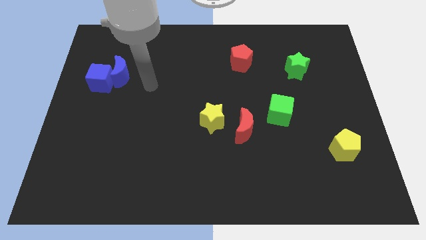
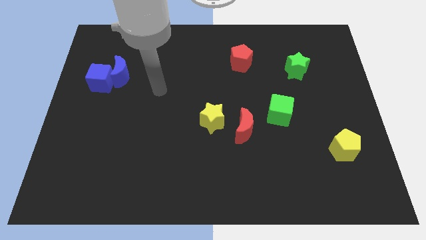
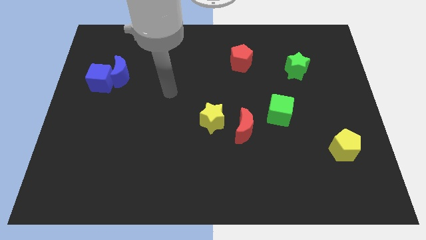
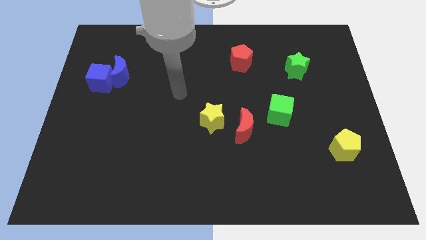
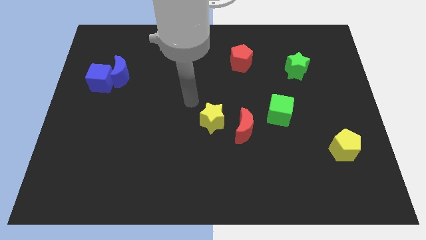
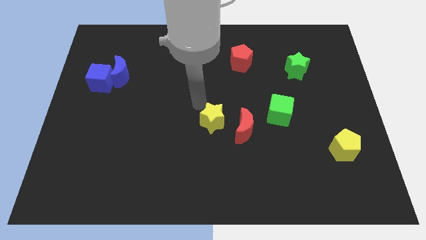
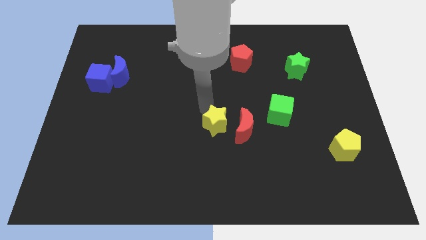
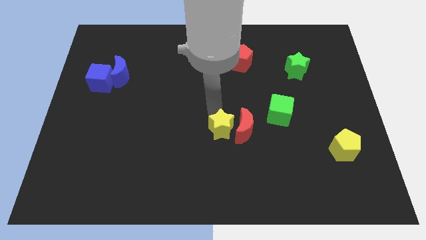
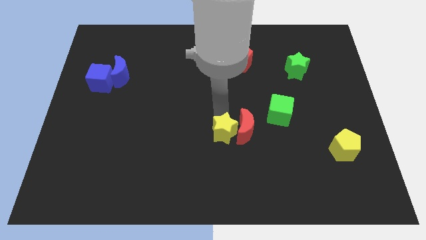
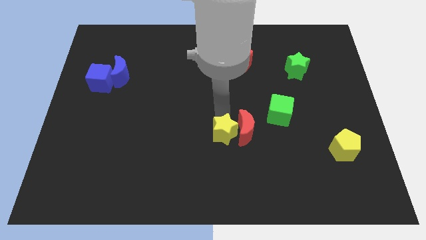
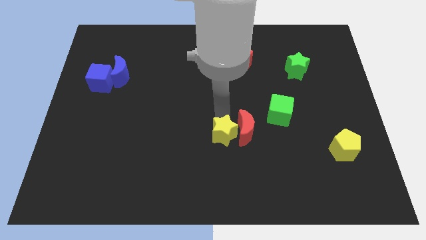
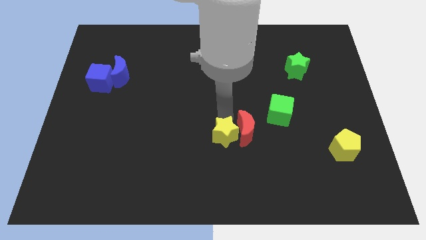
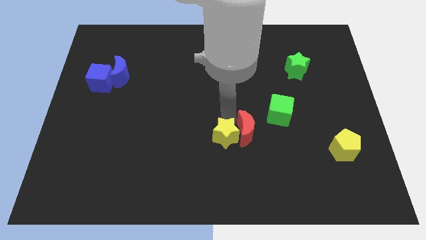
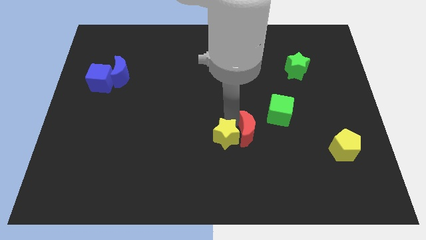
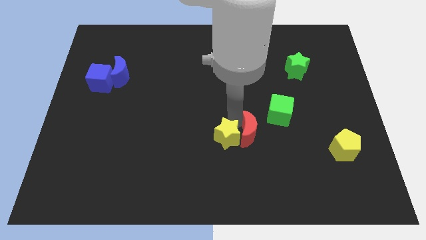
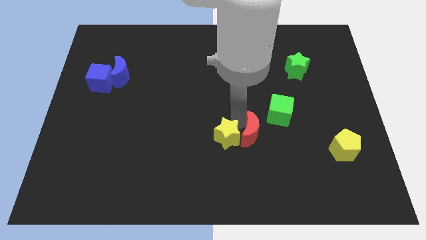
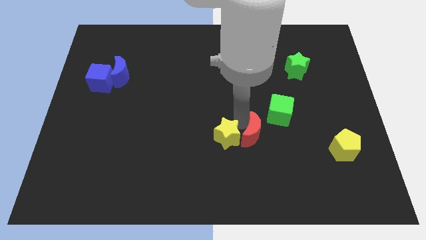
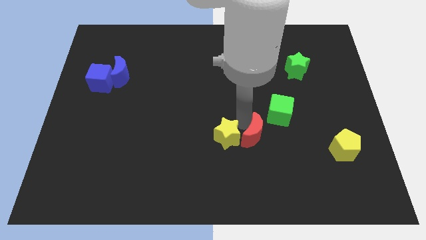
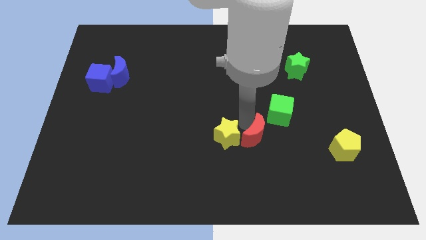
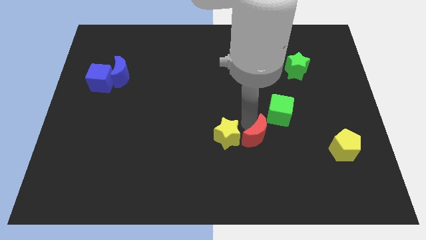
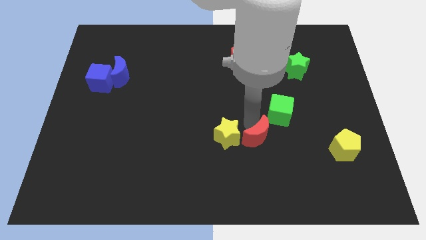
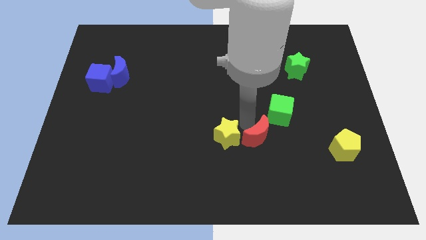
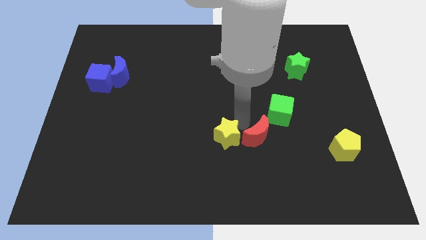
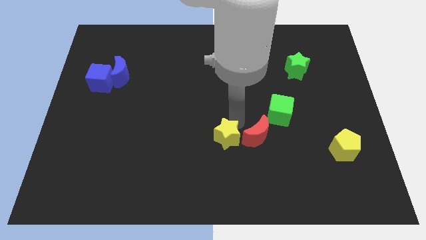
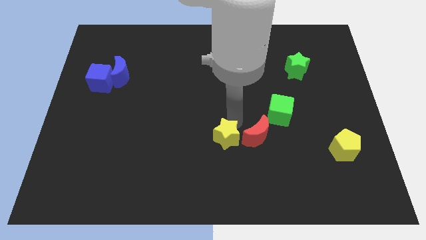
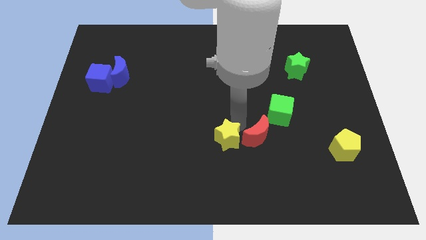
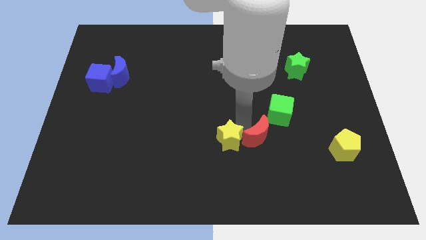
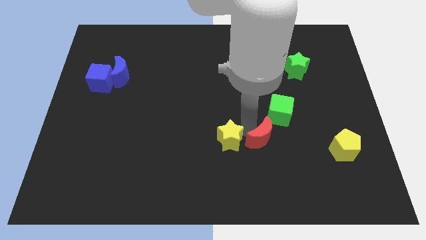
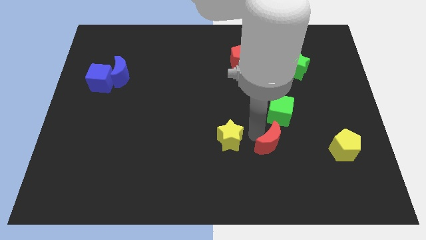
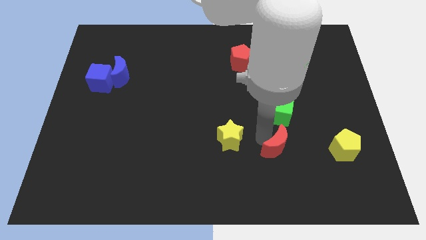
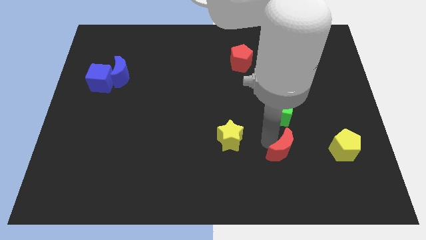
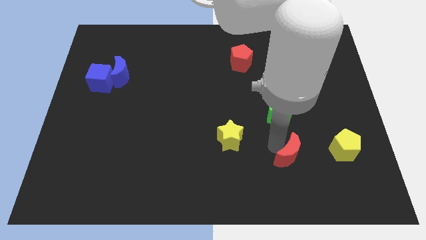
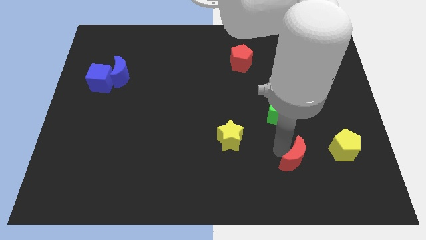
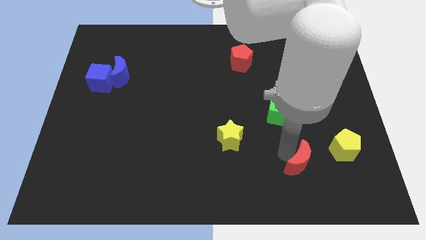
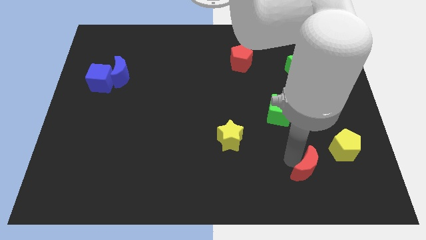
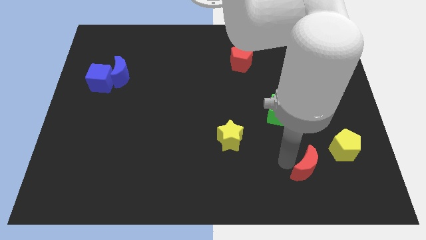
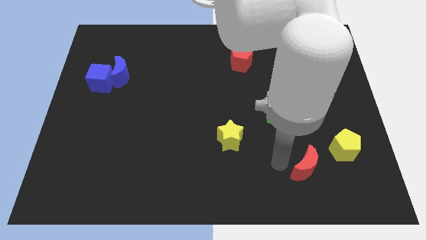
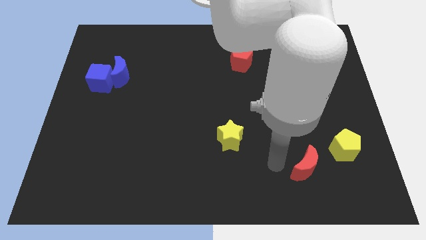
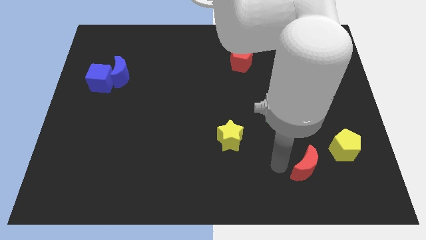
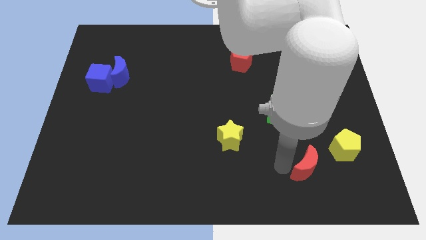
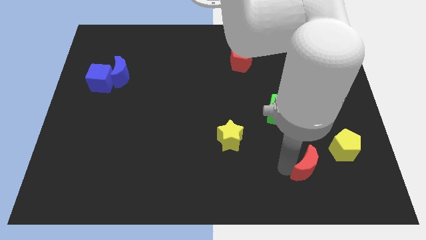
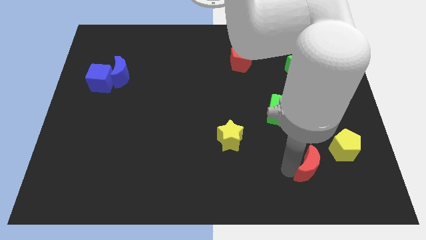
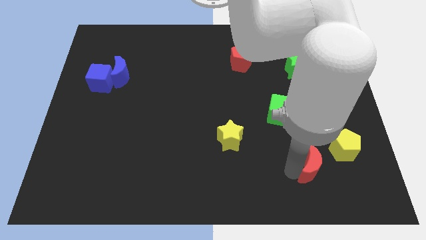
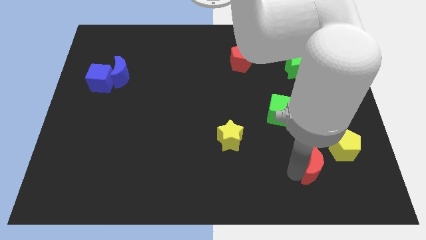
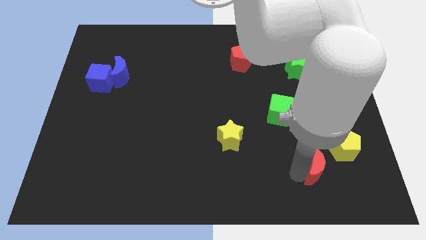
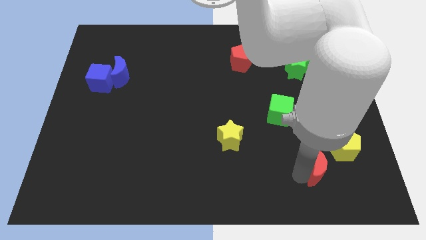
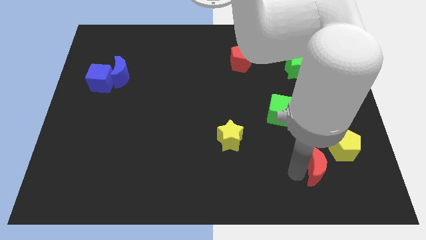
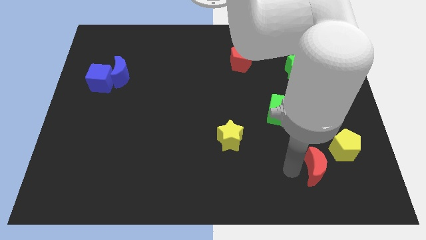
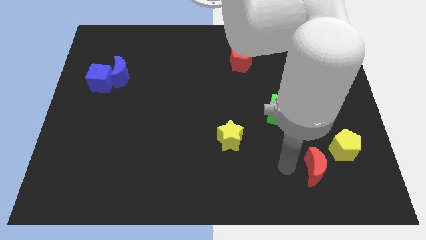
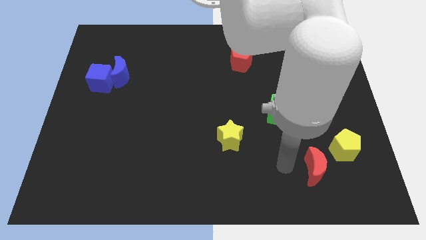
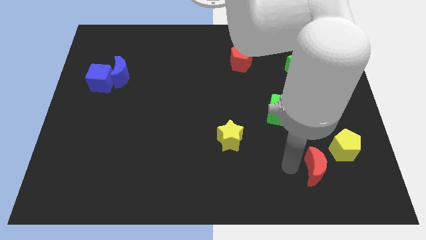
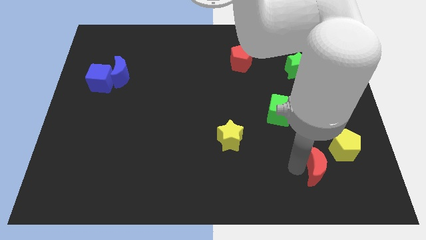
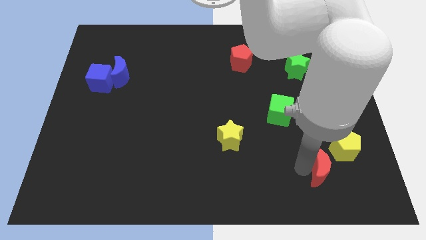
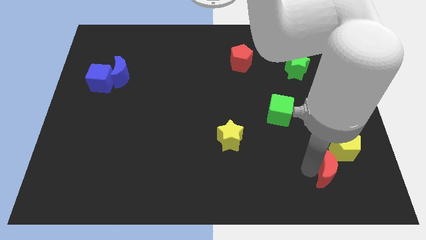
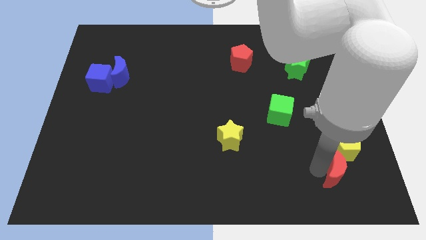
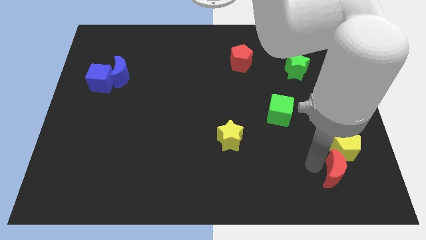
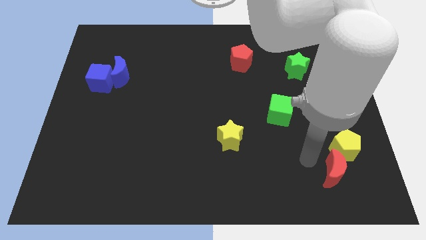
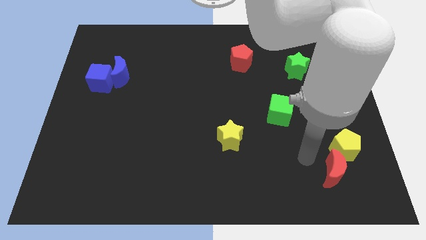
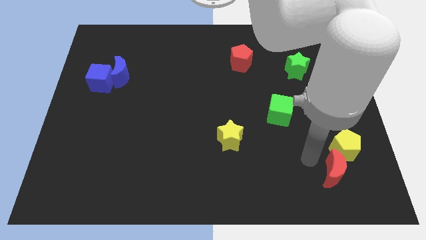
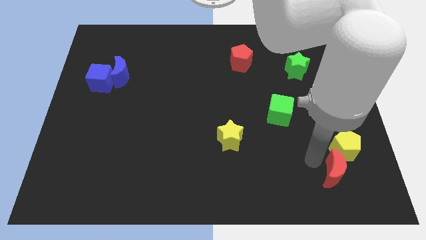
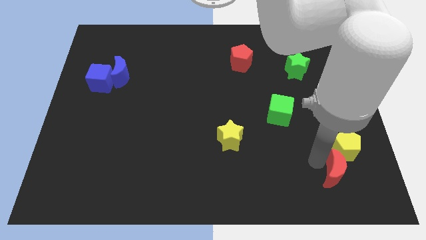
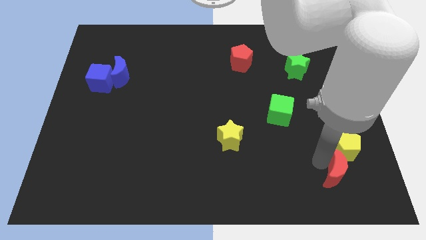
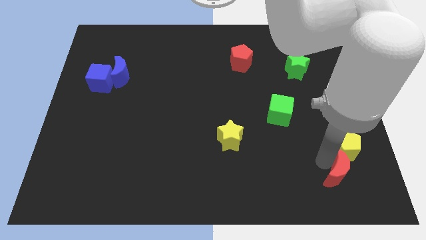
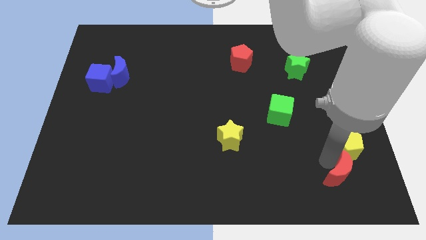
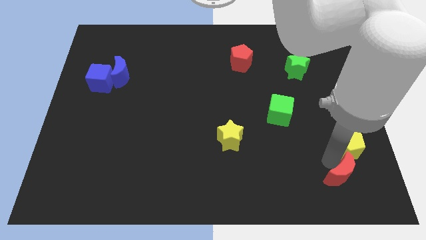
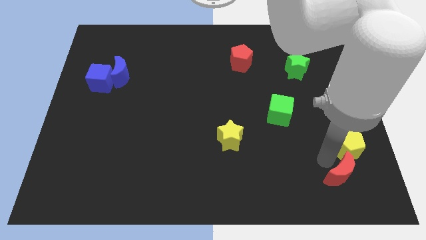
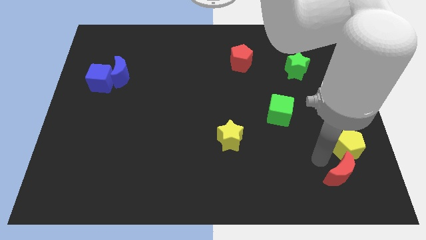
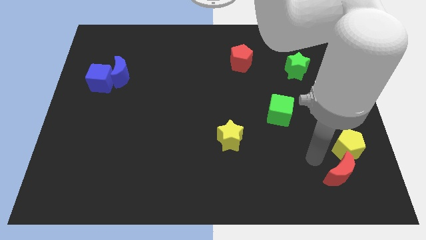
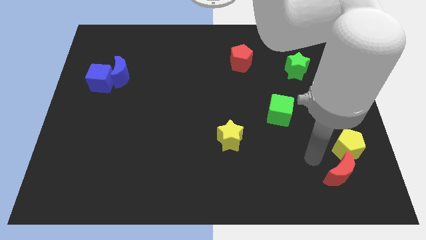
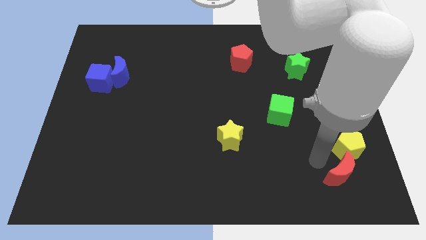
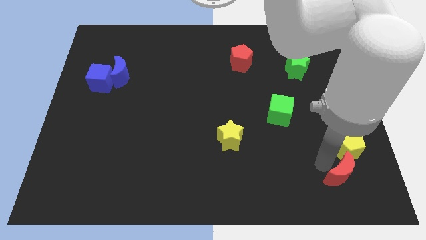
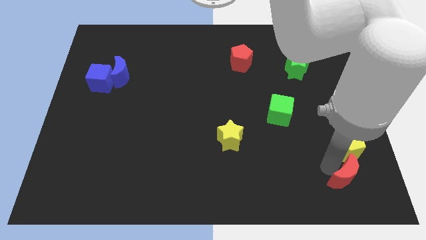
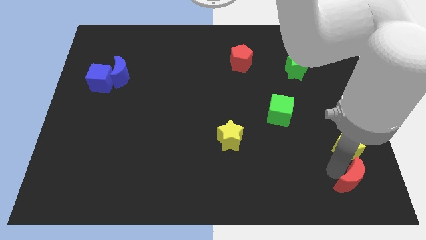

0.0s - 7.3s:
push the red moon to the bottom right of the board
